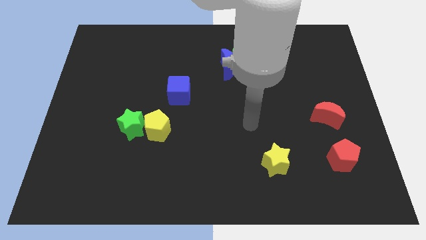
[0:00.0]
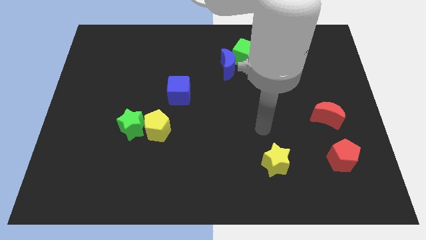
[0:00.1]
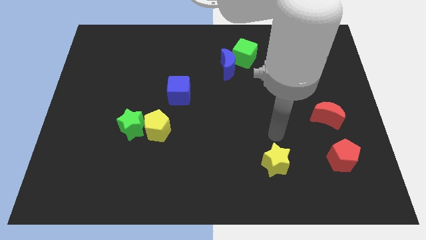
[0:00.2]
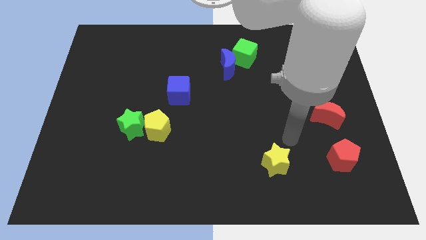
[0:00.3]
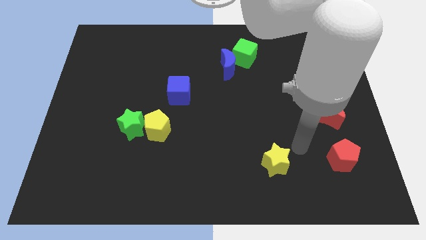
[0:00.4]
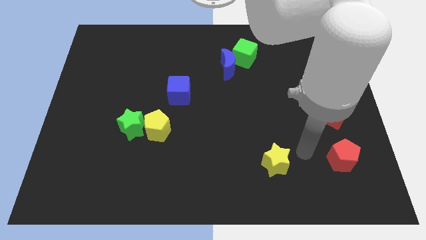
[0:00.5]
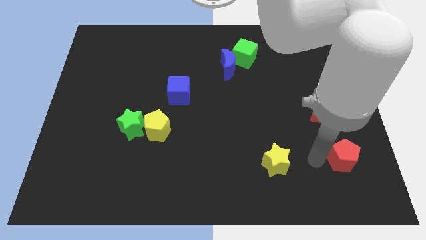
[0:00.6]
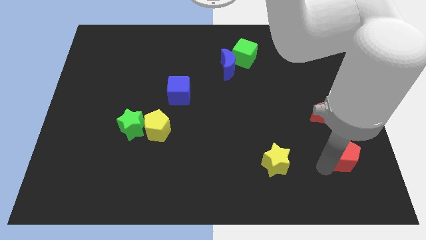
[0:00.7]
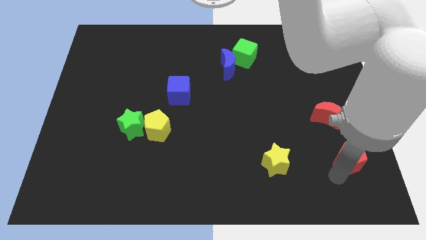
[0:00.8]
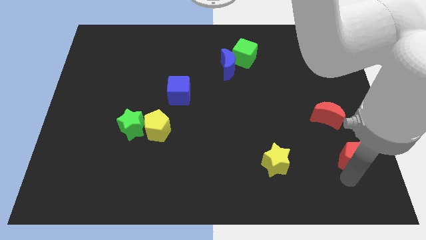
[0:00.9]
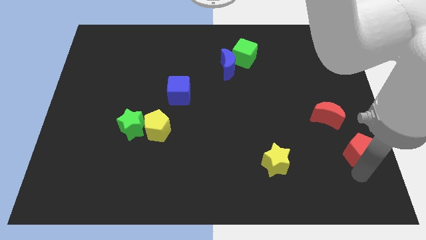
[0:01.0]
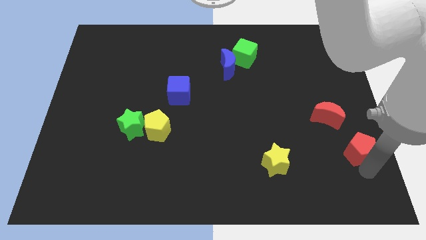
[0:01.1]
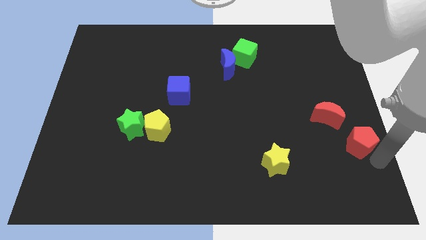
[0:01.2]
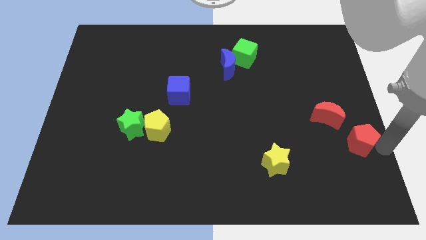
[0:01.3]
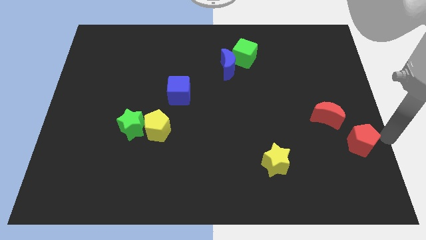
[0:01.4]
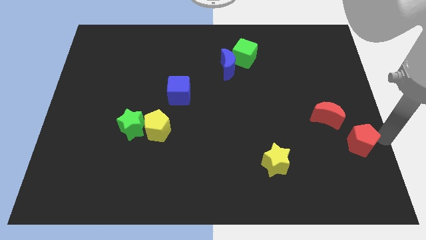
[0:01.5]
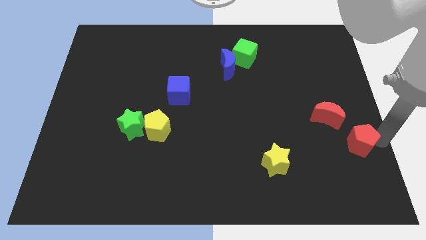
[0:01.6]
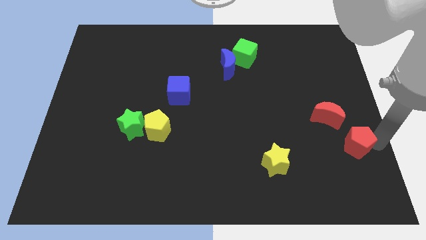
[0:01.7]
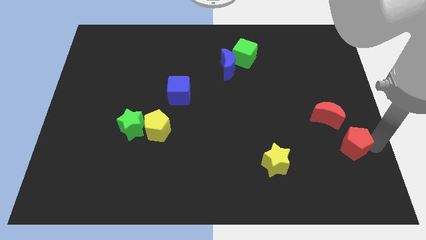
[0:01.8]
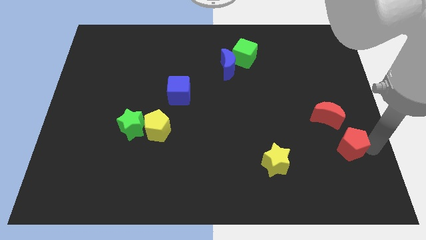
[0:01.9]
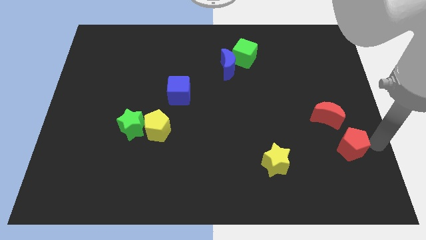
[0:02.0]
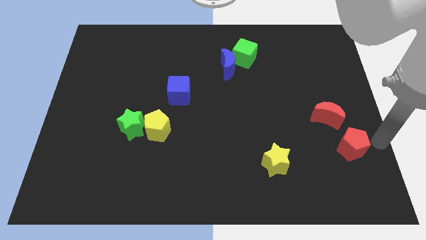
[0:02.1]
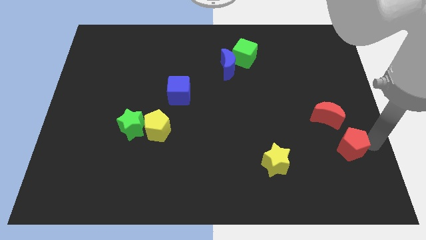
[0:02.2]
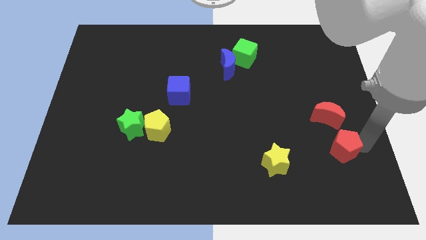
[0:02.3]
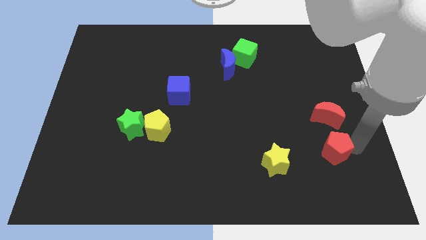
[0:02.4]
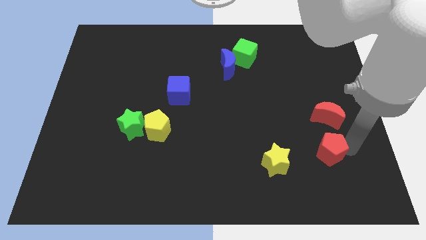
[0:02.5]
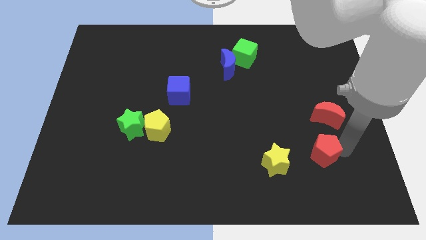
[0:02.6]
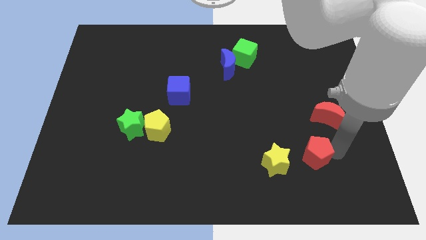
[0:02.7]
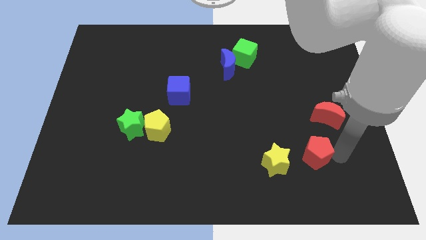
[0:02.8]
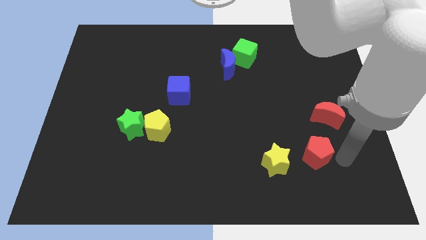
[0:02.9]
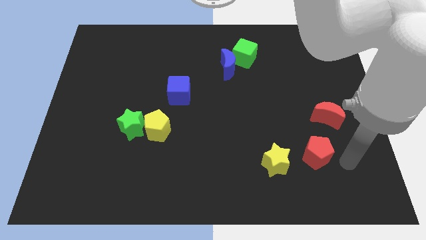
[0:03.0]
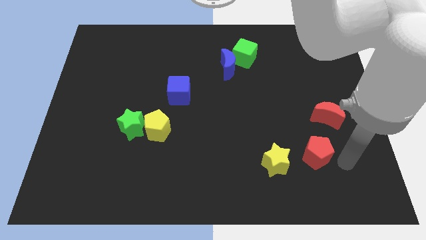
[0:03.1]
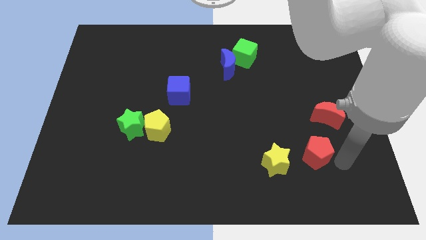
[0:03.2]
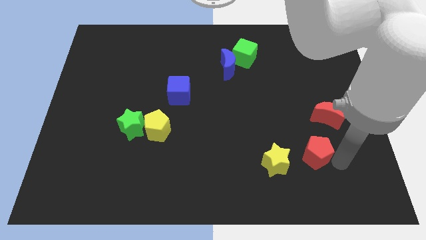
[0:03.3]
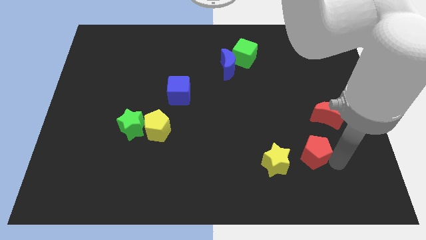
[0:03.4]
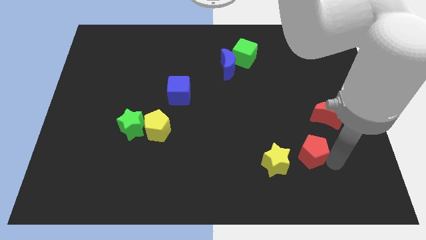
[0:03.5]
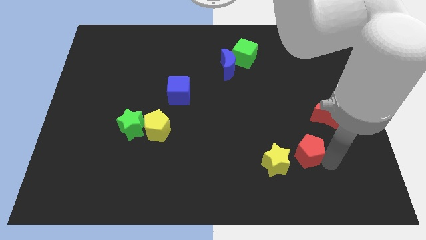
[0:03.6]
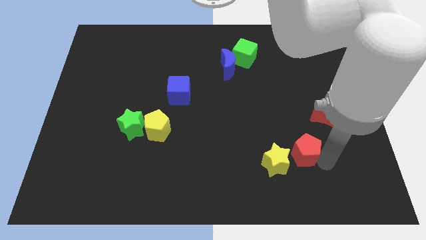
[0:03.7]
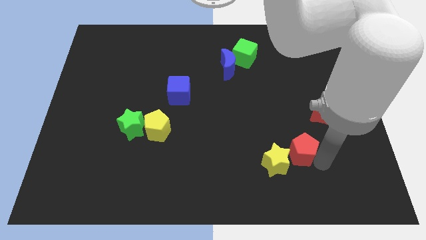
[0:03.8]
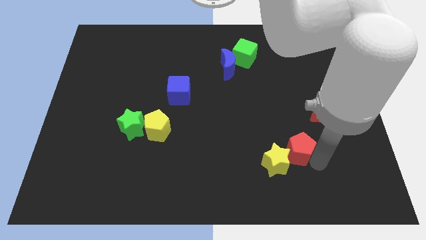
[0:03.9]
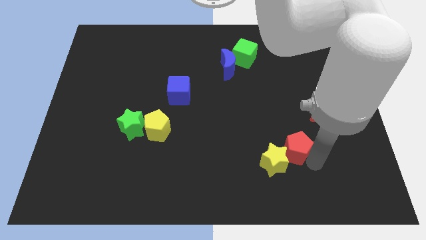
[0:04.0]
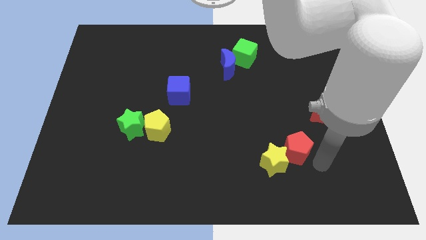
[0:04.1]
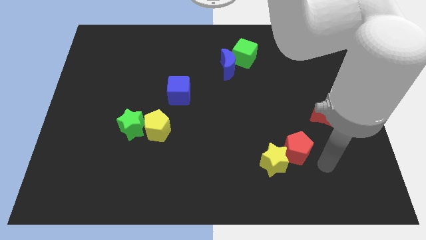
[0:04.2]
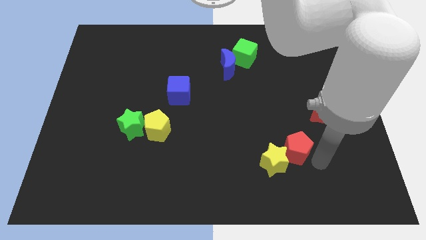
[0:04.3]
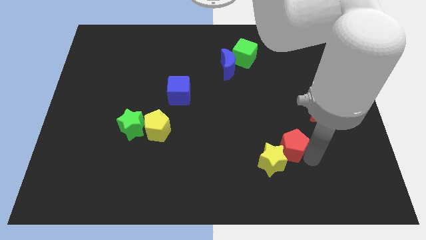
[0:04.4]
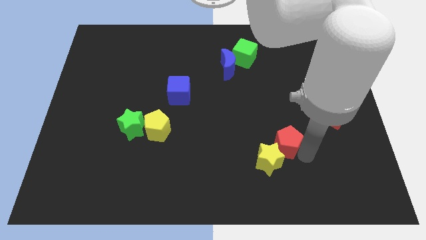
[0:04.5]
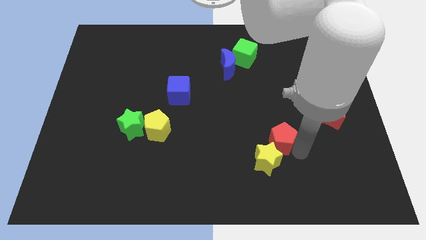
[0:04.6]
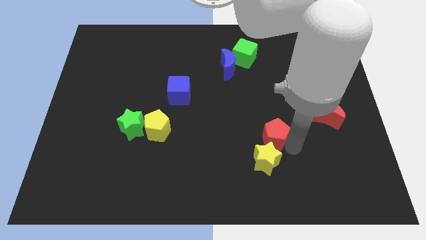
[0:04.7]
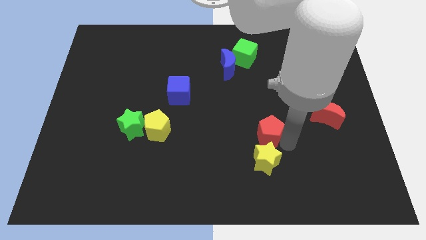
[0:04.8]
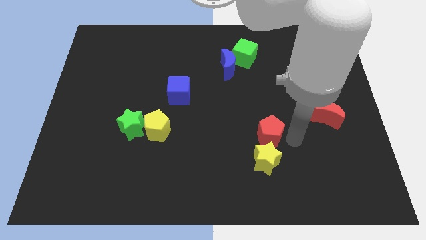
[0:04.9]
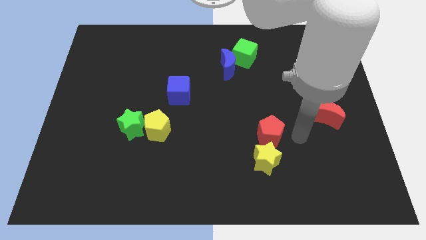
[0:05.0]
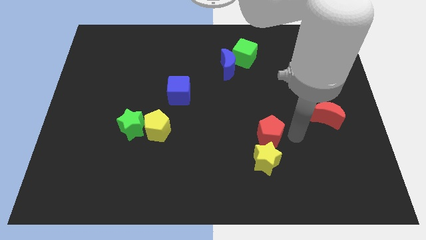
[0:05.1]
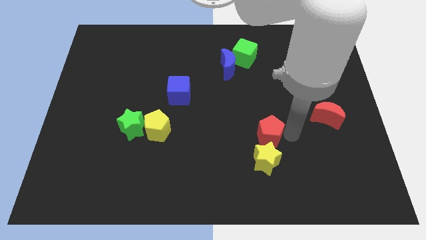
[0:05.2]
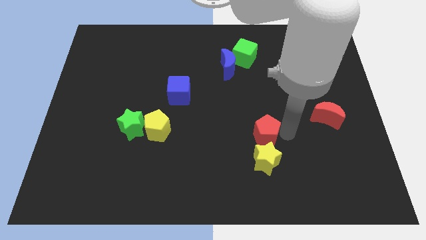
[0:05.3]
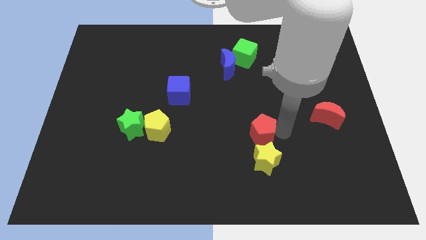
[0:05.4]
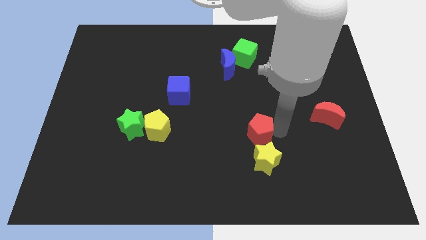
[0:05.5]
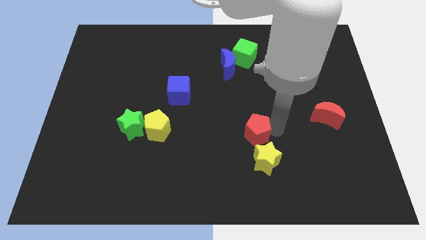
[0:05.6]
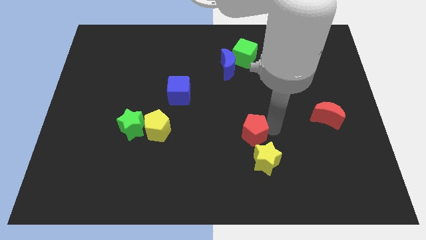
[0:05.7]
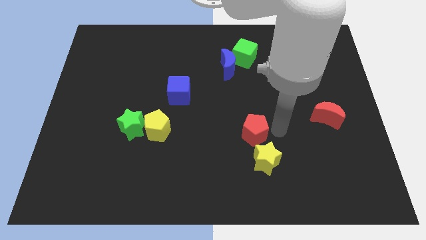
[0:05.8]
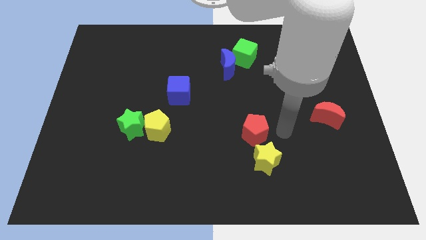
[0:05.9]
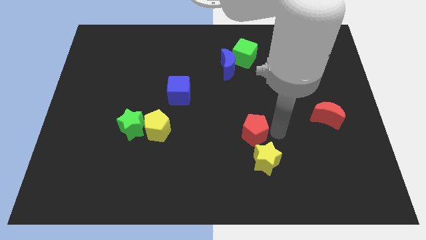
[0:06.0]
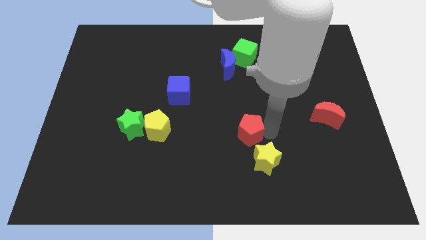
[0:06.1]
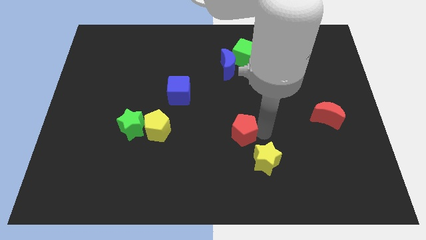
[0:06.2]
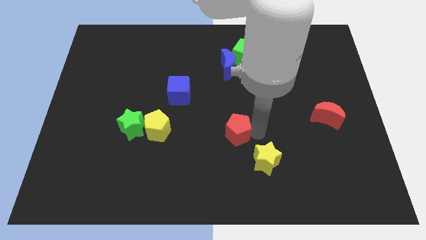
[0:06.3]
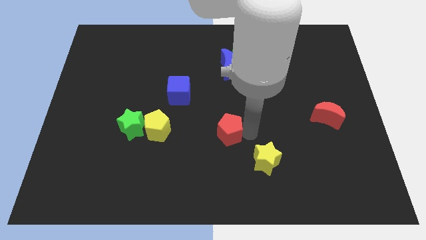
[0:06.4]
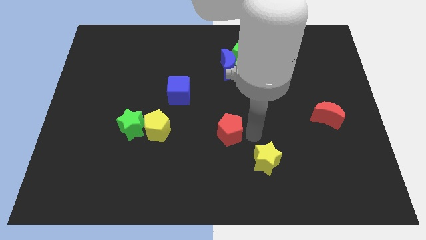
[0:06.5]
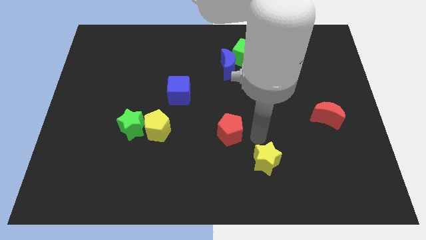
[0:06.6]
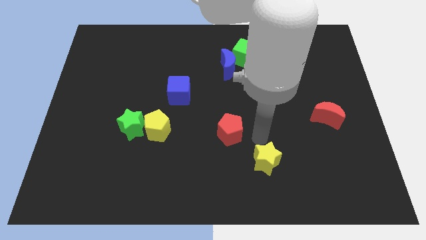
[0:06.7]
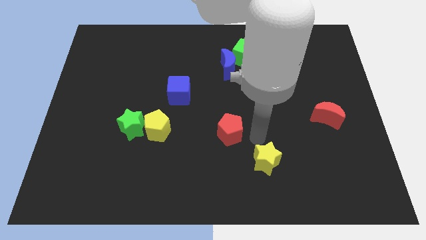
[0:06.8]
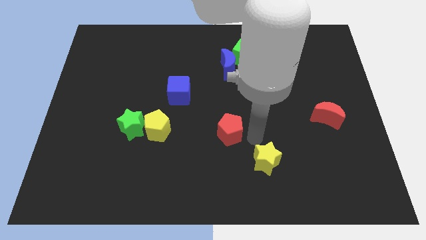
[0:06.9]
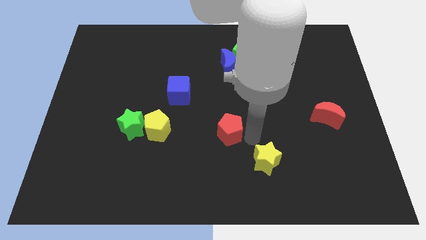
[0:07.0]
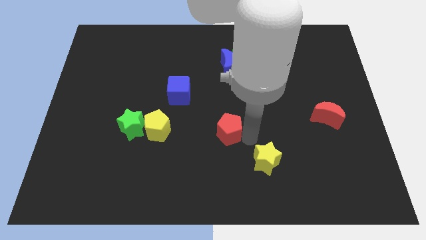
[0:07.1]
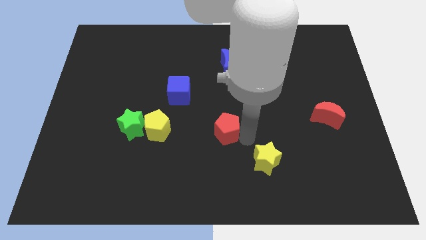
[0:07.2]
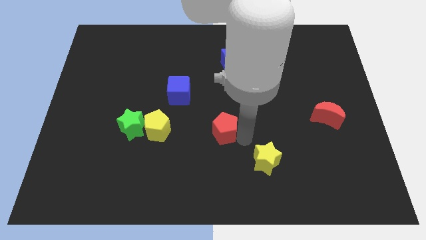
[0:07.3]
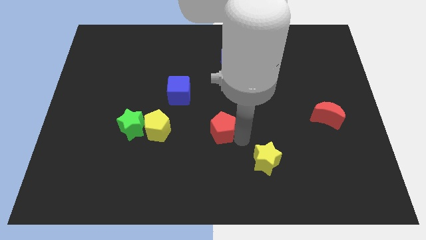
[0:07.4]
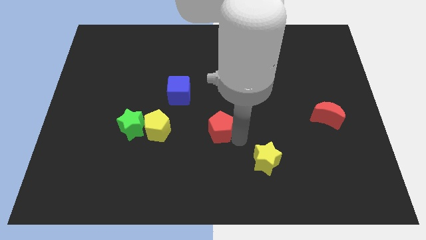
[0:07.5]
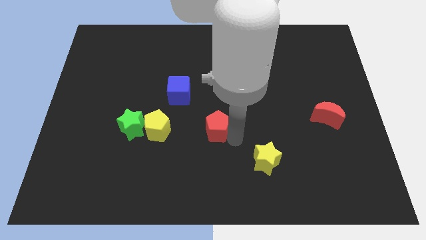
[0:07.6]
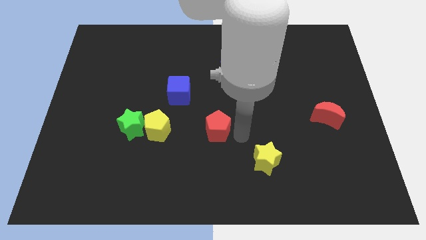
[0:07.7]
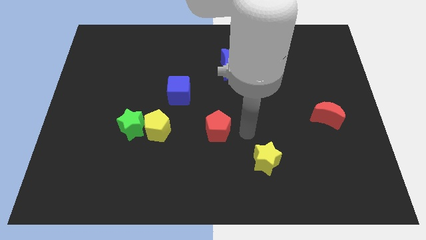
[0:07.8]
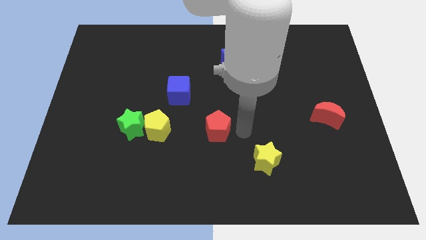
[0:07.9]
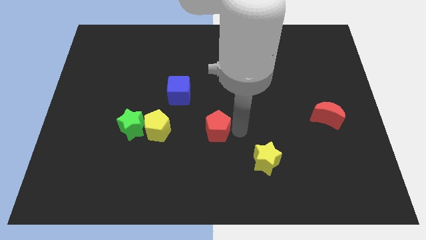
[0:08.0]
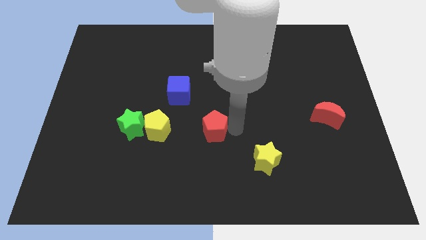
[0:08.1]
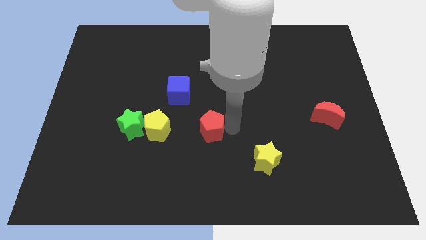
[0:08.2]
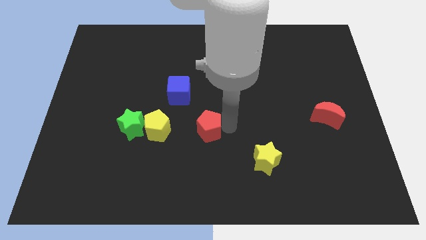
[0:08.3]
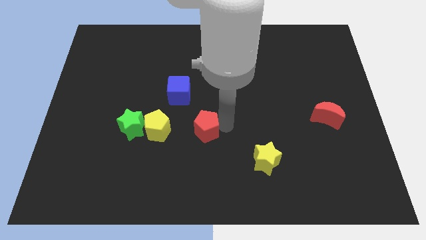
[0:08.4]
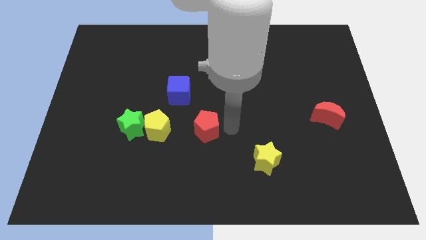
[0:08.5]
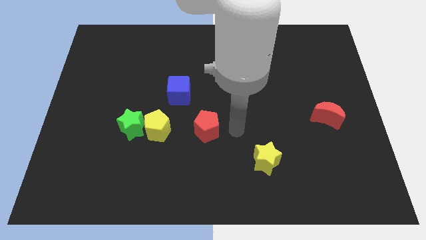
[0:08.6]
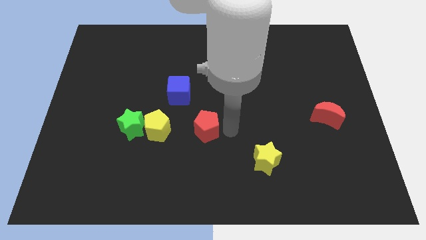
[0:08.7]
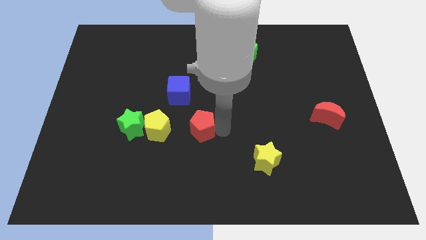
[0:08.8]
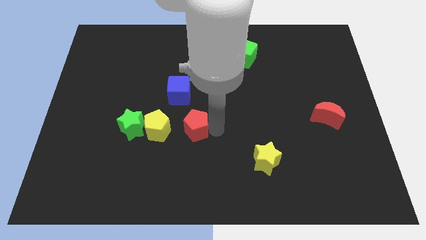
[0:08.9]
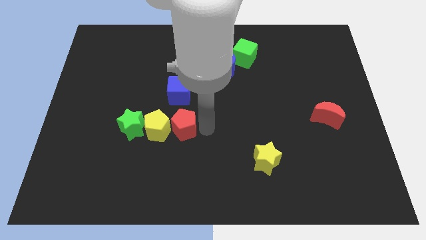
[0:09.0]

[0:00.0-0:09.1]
move the red pentagon towards the yellow pentagon
